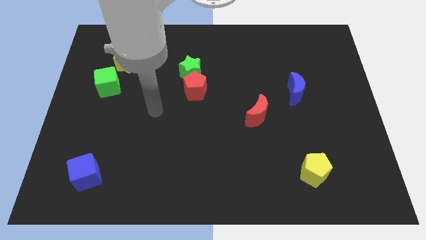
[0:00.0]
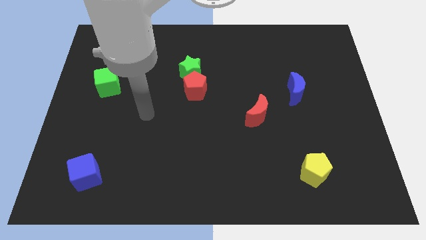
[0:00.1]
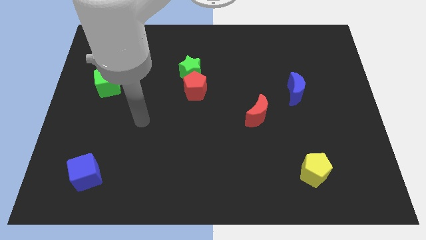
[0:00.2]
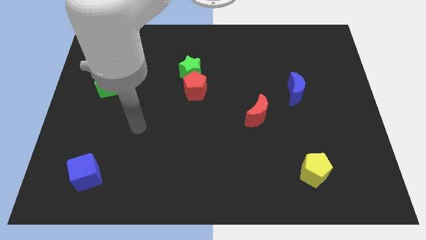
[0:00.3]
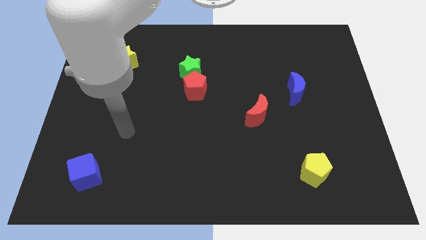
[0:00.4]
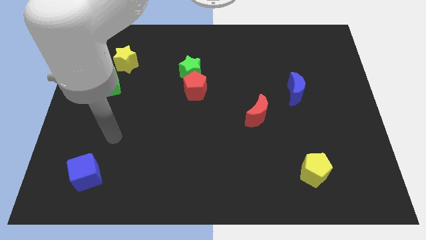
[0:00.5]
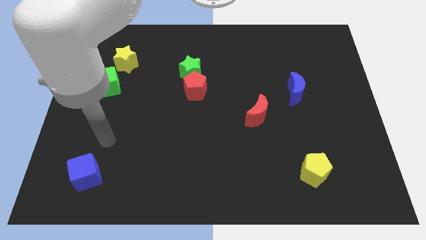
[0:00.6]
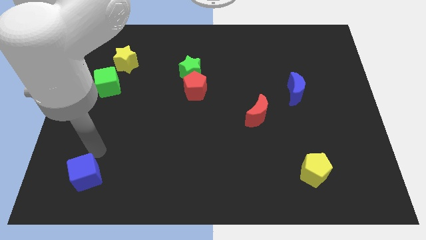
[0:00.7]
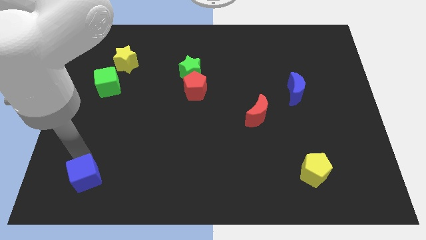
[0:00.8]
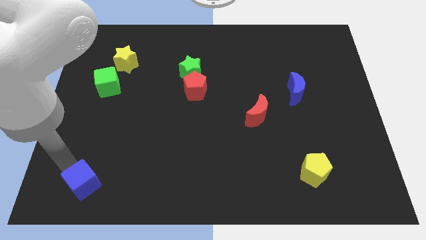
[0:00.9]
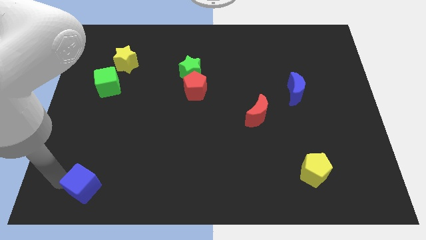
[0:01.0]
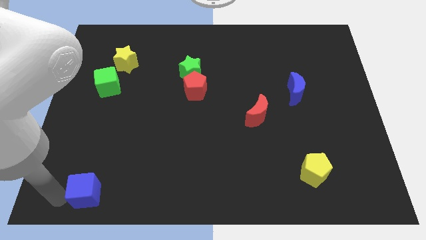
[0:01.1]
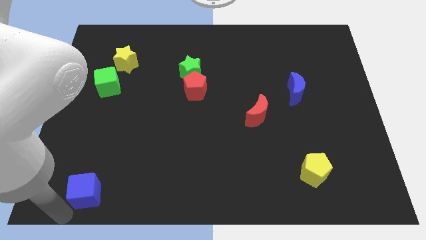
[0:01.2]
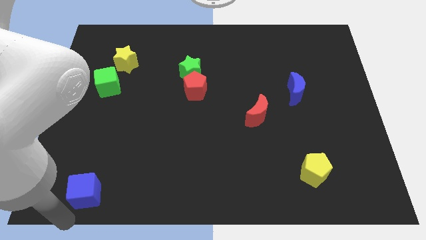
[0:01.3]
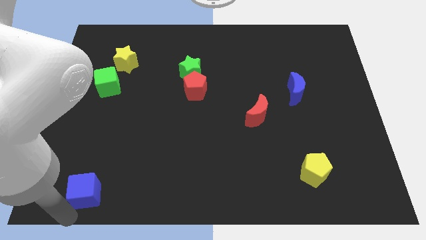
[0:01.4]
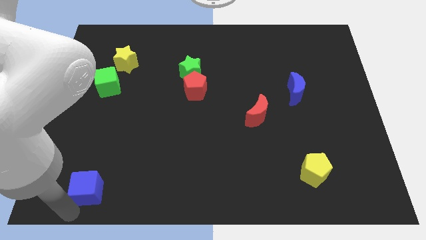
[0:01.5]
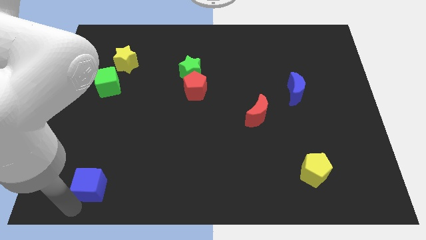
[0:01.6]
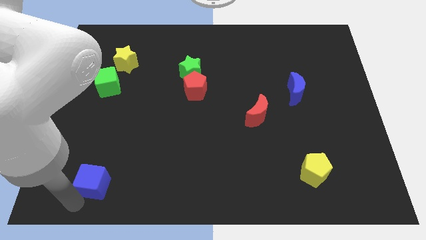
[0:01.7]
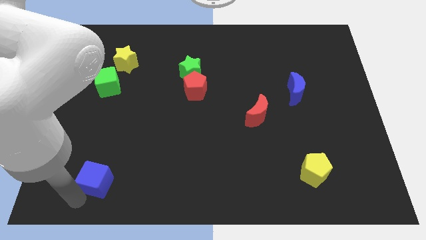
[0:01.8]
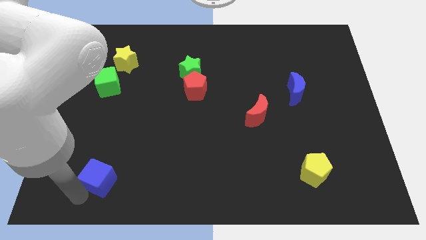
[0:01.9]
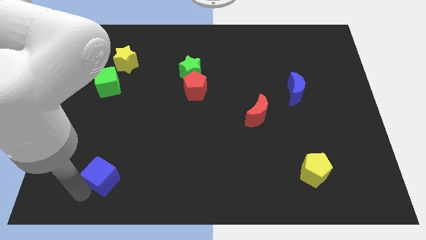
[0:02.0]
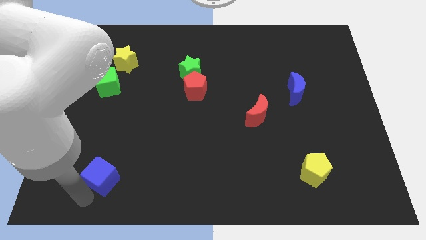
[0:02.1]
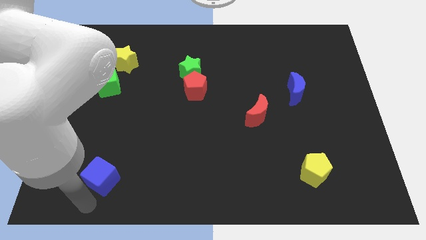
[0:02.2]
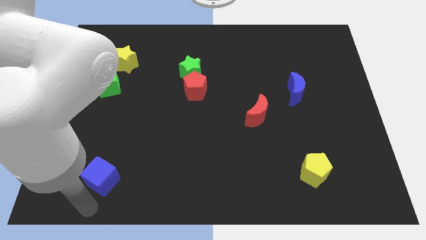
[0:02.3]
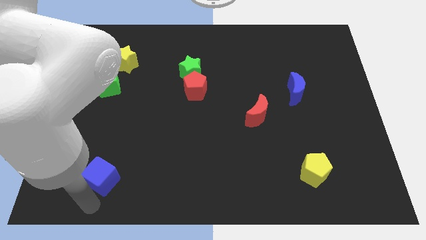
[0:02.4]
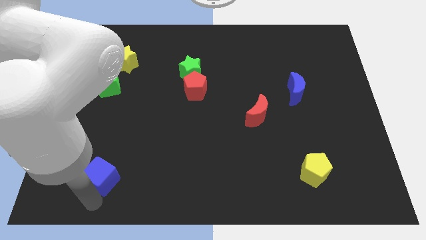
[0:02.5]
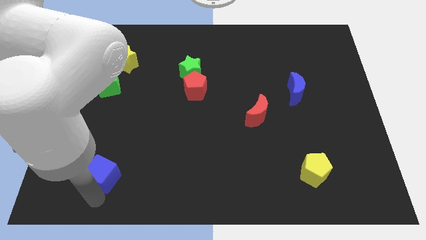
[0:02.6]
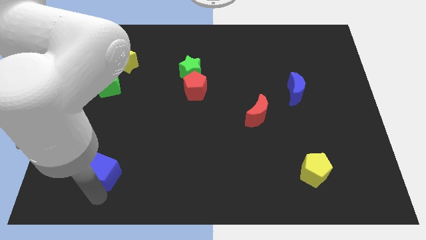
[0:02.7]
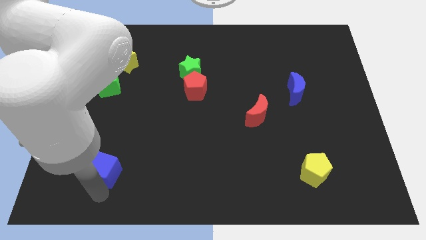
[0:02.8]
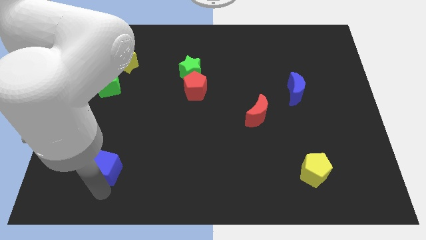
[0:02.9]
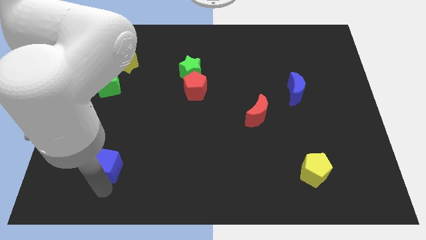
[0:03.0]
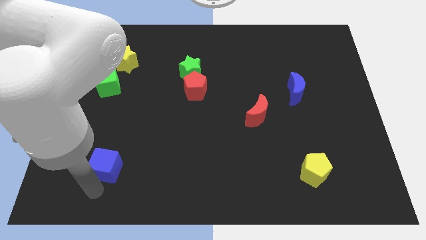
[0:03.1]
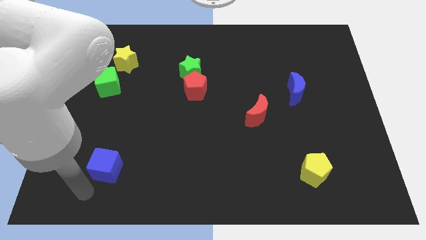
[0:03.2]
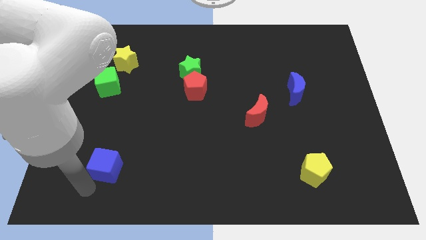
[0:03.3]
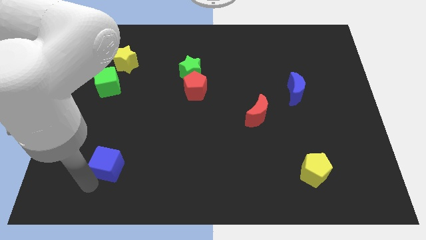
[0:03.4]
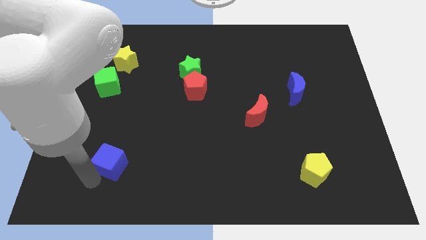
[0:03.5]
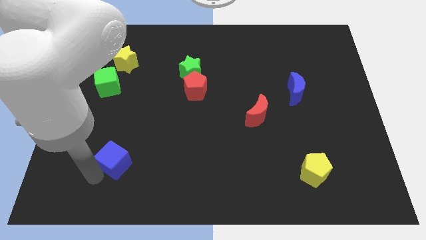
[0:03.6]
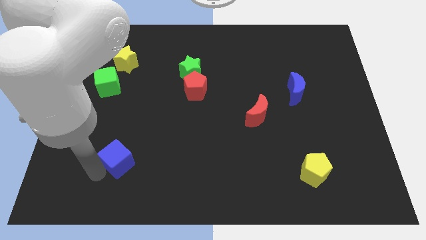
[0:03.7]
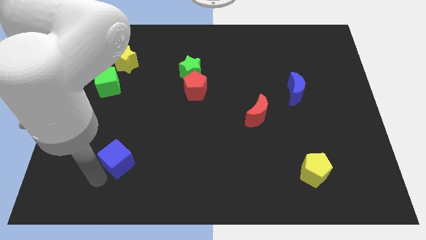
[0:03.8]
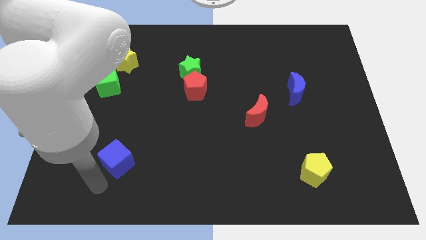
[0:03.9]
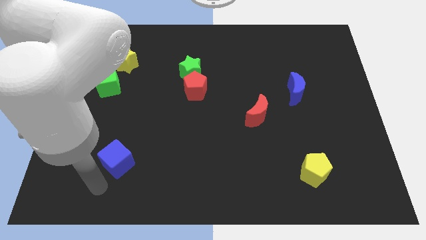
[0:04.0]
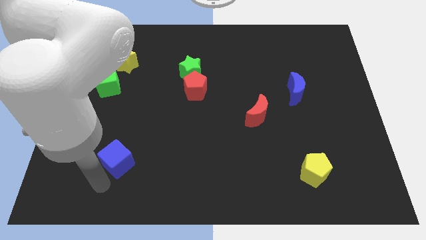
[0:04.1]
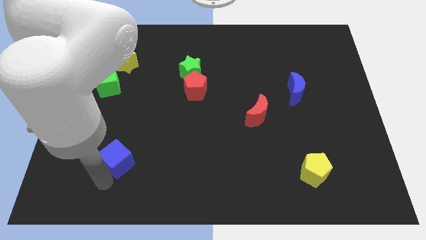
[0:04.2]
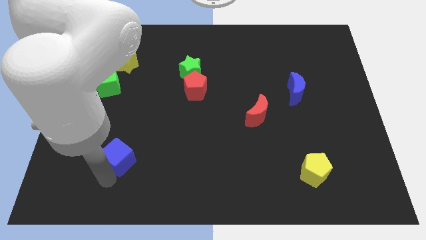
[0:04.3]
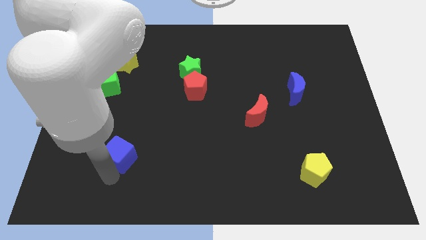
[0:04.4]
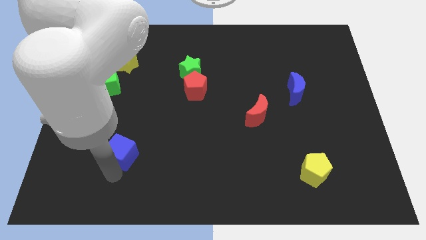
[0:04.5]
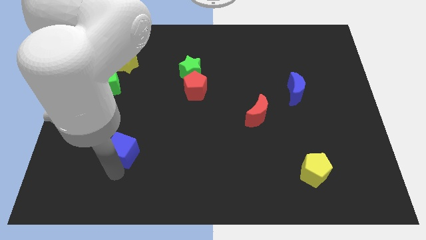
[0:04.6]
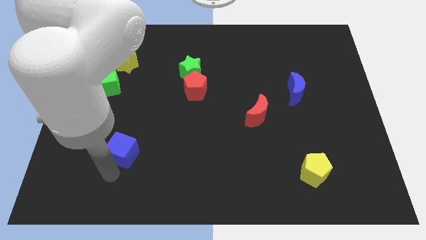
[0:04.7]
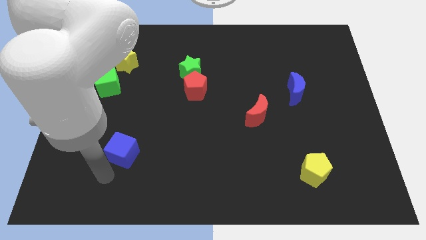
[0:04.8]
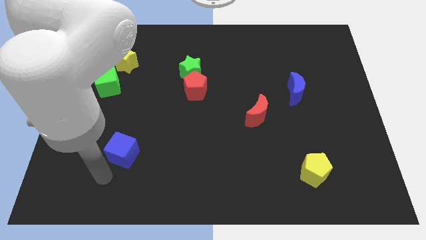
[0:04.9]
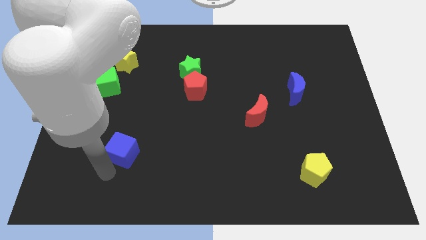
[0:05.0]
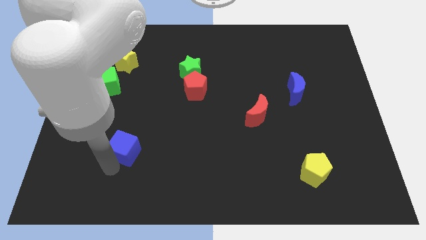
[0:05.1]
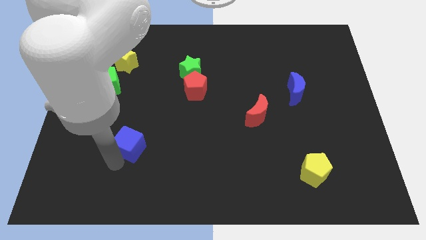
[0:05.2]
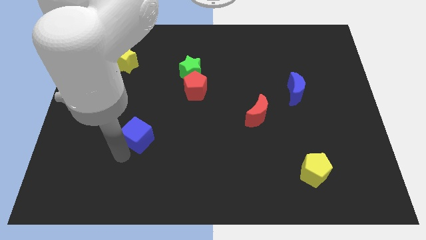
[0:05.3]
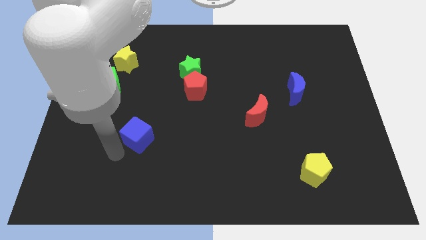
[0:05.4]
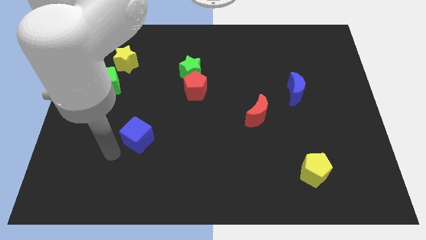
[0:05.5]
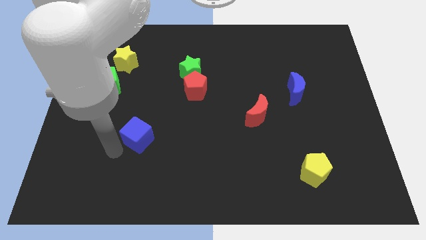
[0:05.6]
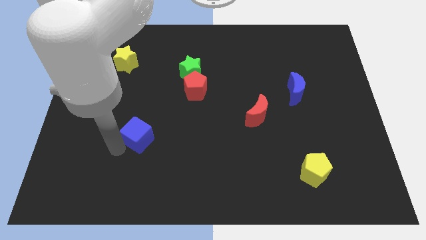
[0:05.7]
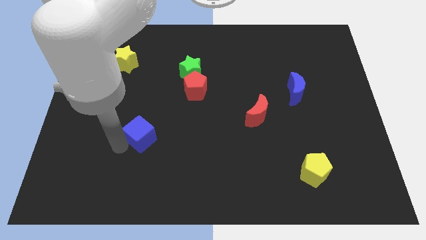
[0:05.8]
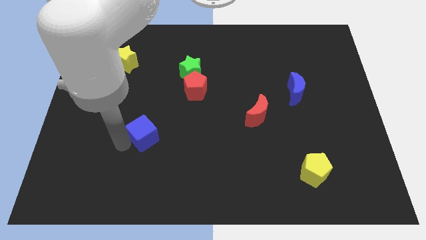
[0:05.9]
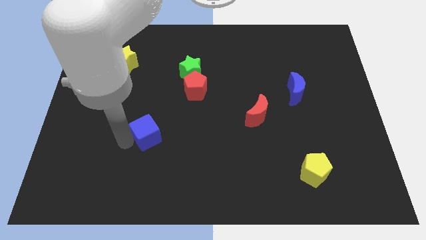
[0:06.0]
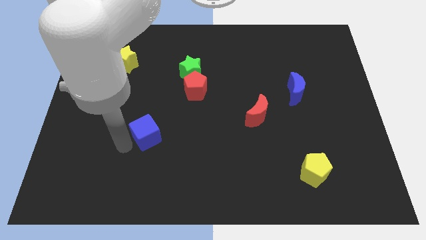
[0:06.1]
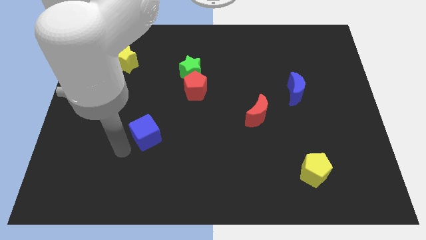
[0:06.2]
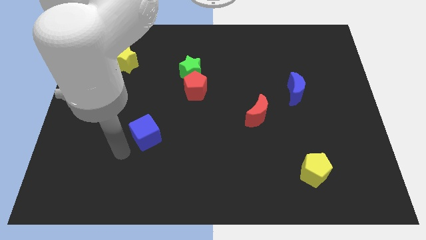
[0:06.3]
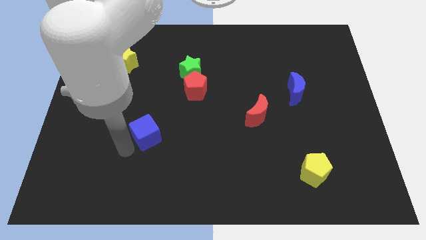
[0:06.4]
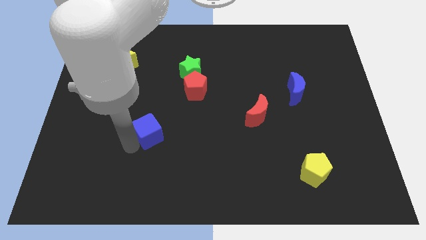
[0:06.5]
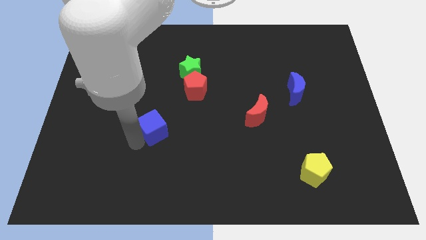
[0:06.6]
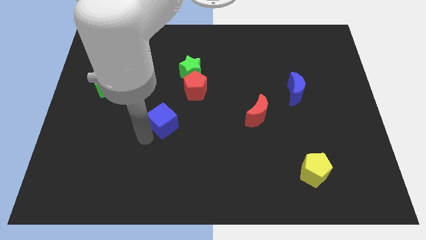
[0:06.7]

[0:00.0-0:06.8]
move the blue cube diagonally down and to the left of the red pentagon
